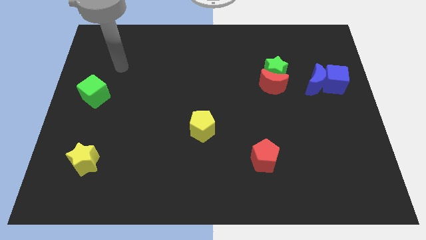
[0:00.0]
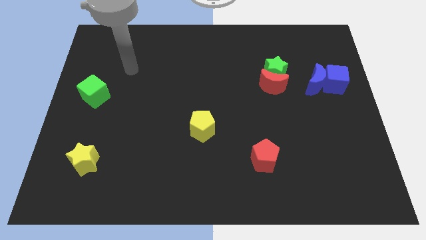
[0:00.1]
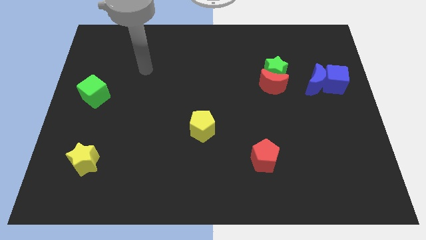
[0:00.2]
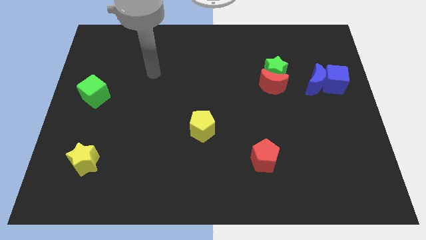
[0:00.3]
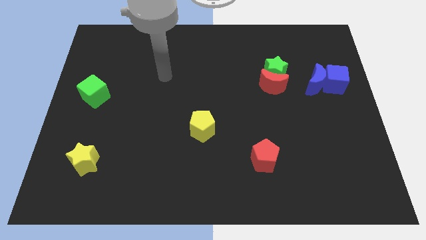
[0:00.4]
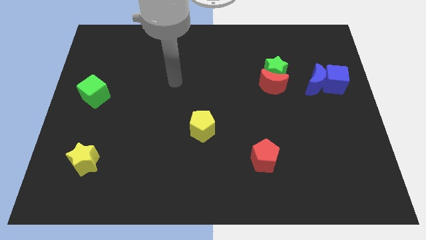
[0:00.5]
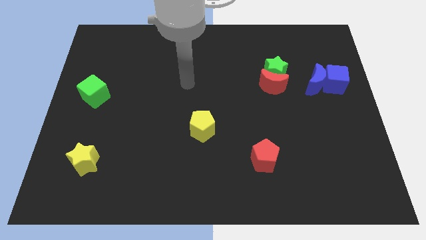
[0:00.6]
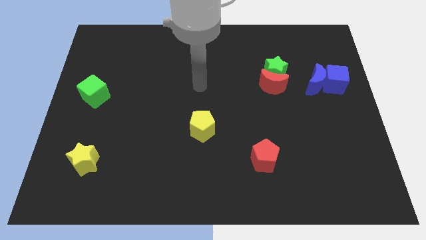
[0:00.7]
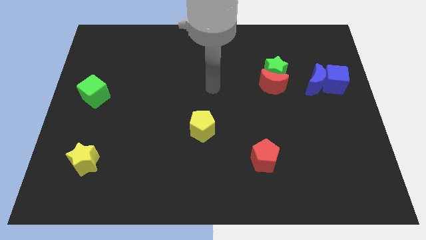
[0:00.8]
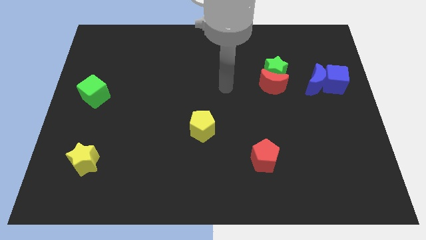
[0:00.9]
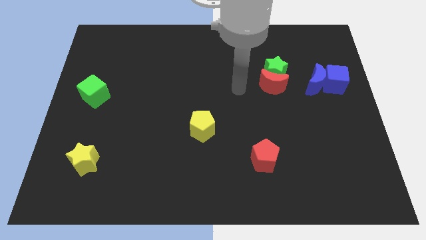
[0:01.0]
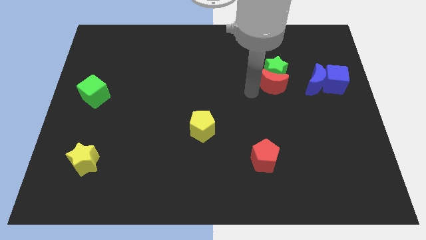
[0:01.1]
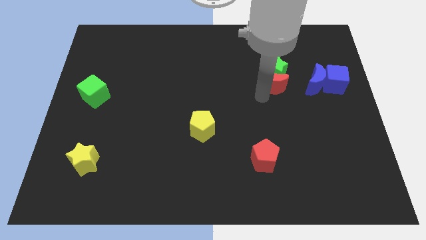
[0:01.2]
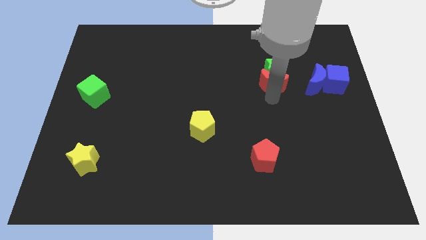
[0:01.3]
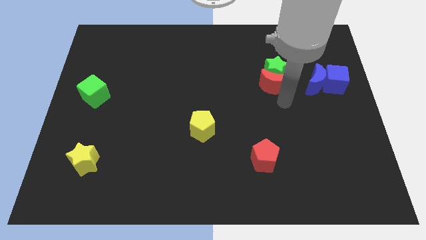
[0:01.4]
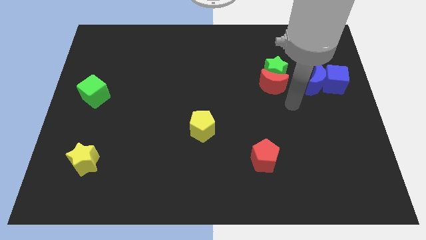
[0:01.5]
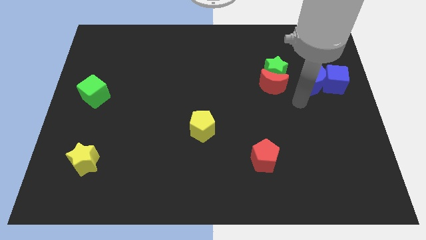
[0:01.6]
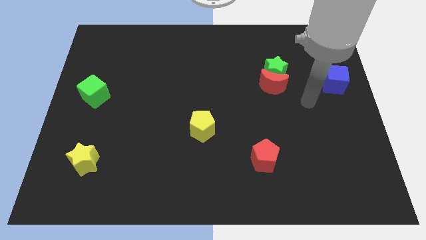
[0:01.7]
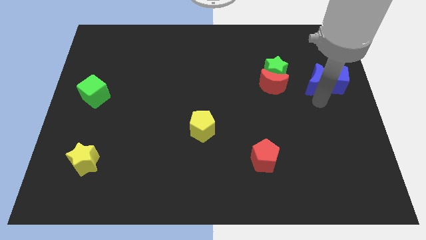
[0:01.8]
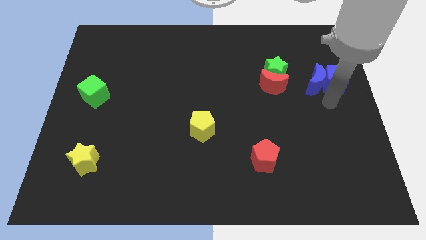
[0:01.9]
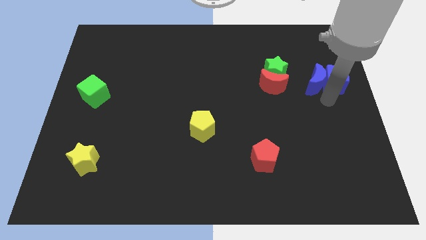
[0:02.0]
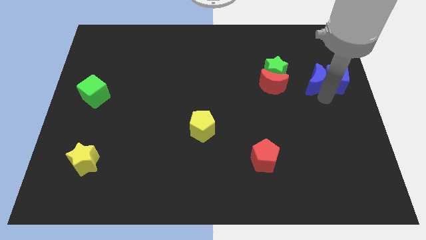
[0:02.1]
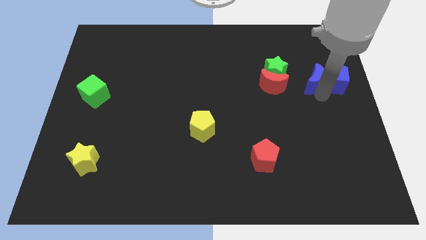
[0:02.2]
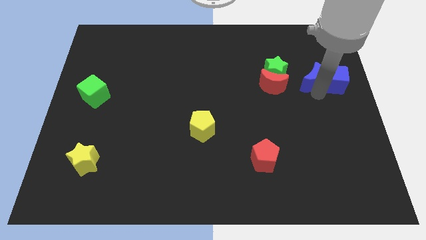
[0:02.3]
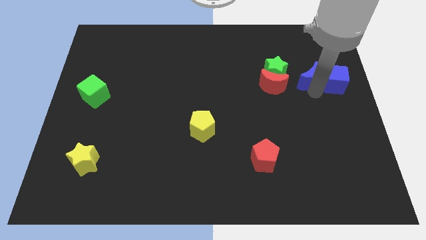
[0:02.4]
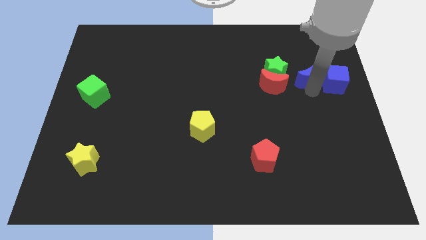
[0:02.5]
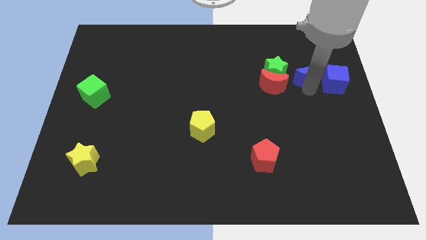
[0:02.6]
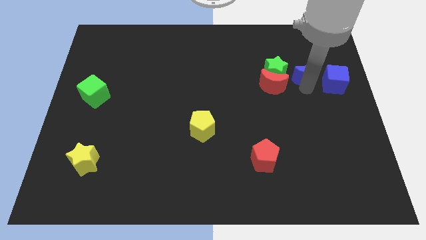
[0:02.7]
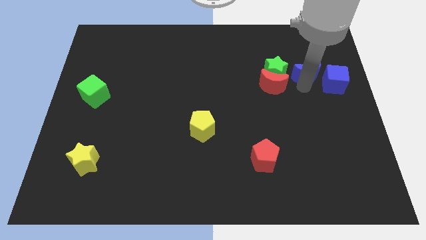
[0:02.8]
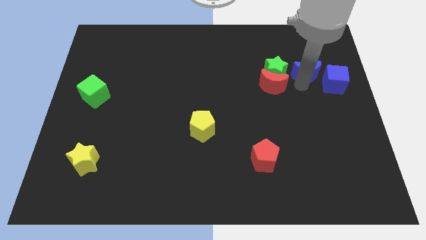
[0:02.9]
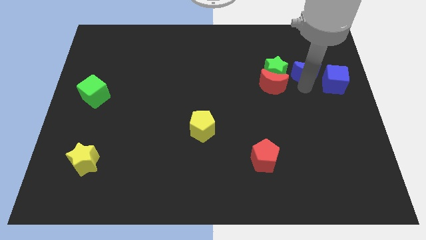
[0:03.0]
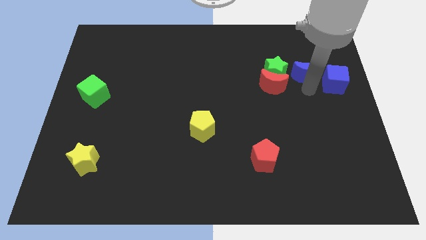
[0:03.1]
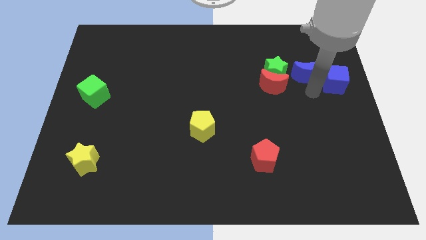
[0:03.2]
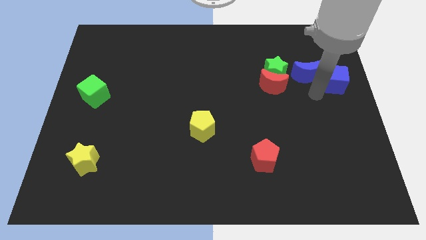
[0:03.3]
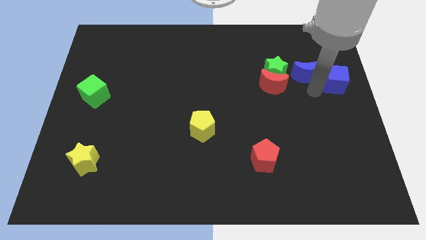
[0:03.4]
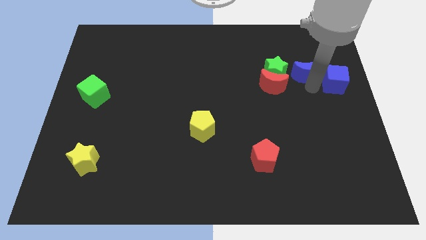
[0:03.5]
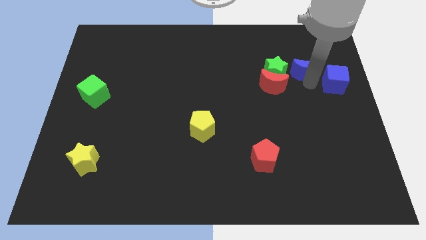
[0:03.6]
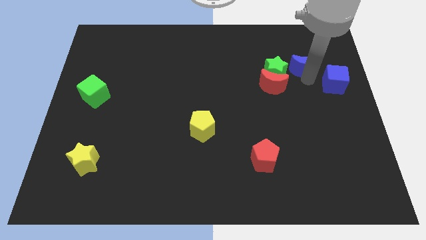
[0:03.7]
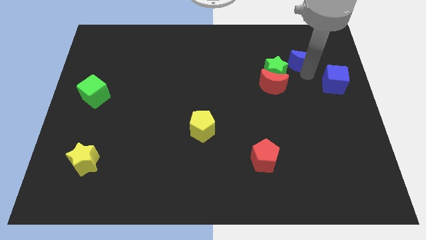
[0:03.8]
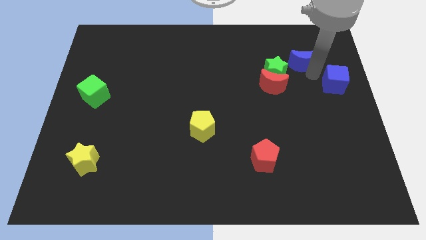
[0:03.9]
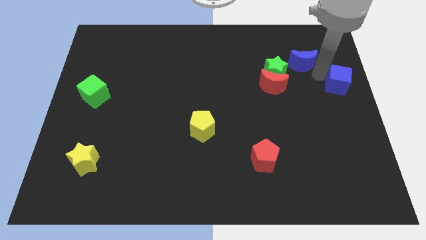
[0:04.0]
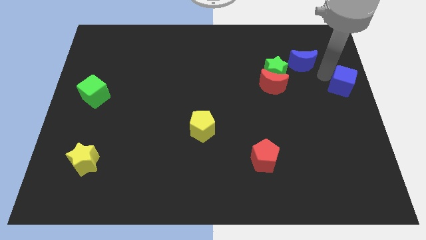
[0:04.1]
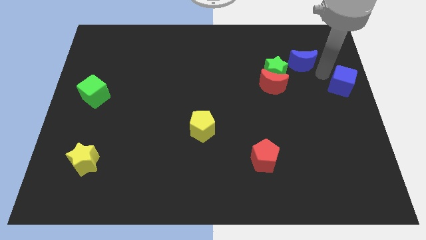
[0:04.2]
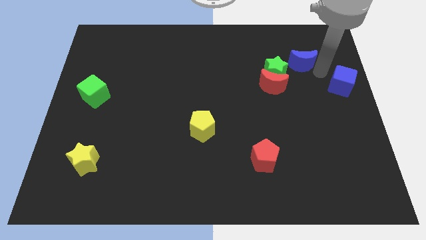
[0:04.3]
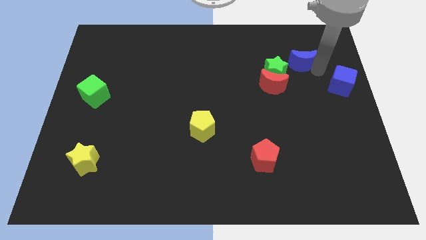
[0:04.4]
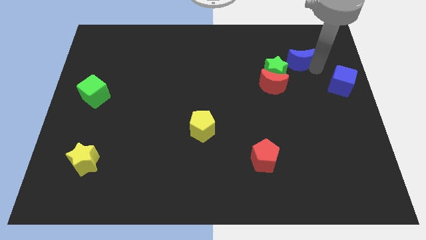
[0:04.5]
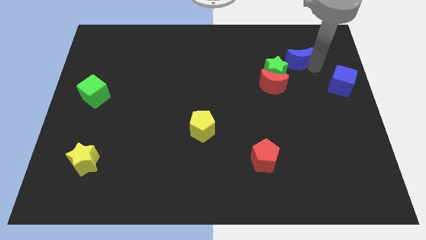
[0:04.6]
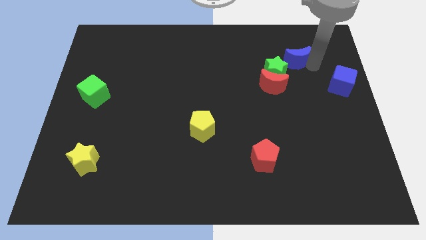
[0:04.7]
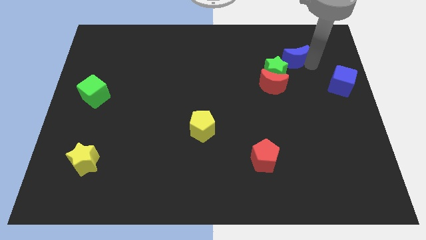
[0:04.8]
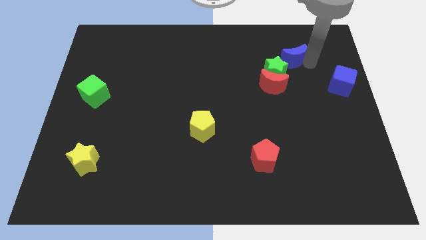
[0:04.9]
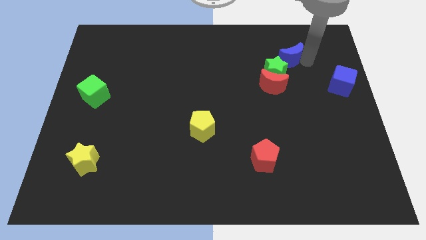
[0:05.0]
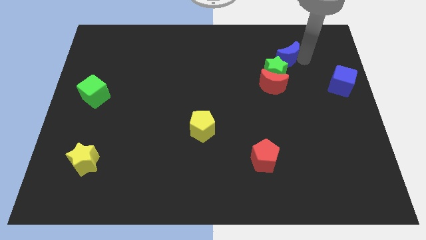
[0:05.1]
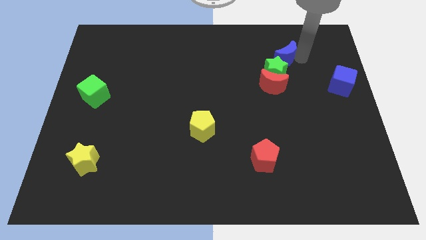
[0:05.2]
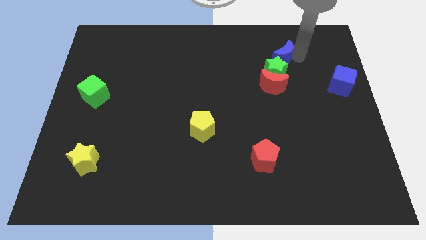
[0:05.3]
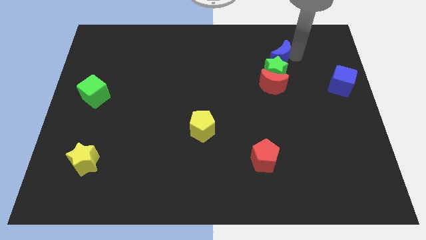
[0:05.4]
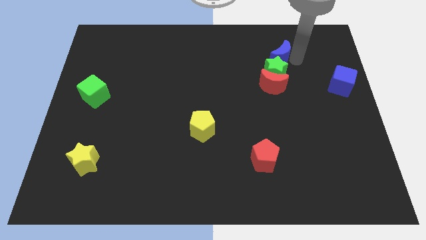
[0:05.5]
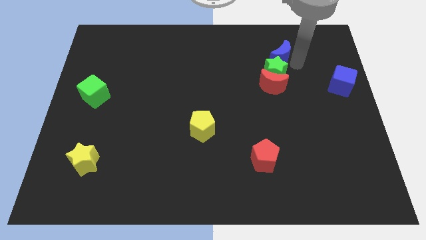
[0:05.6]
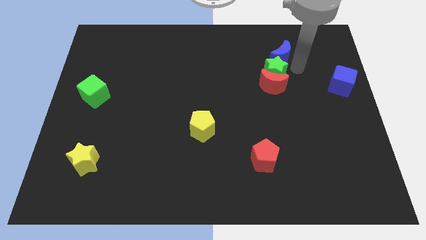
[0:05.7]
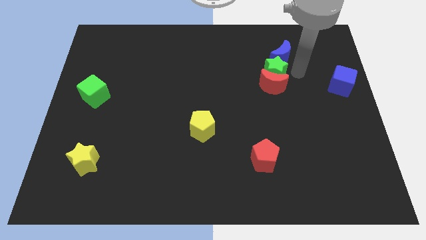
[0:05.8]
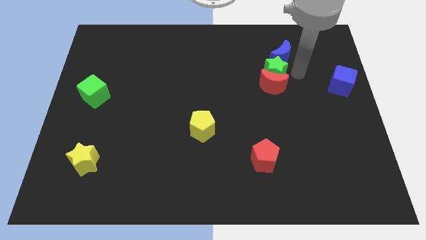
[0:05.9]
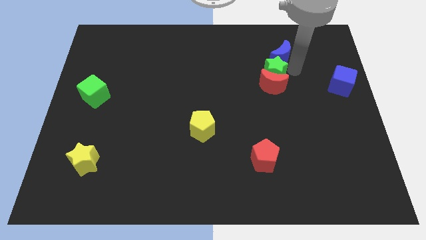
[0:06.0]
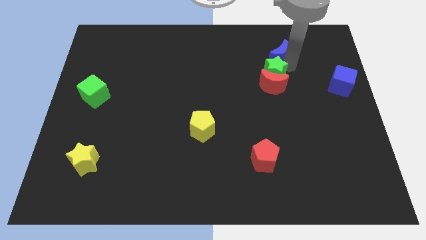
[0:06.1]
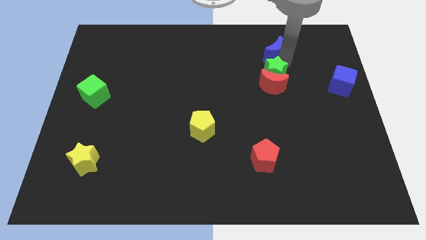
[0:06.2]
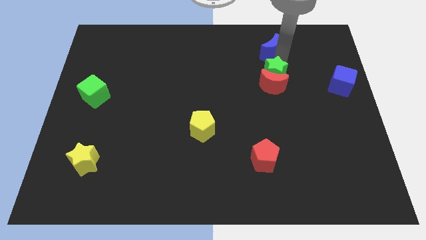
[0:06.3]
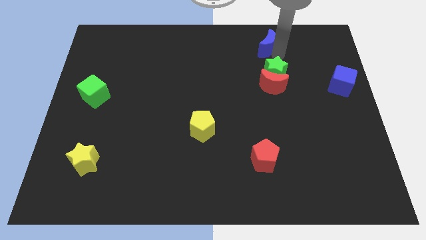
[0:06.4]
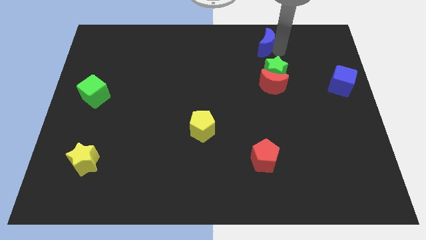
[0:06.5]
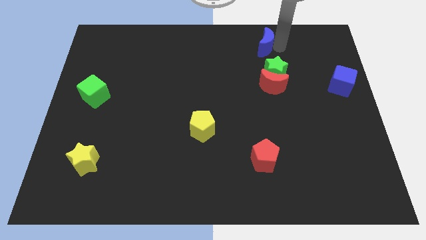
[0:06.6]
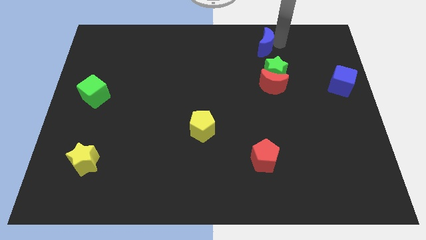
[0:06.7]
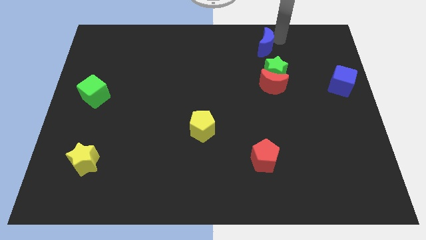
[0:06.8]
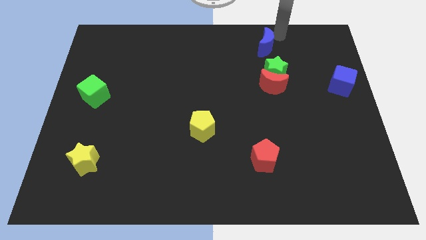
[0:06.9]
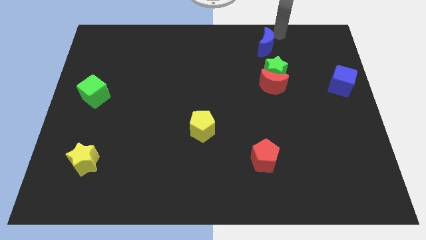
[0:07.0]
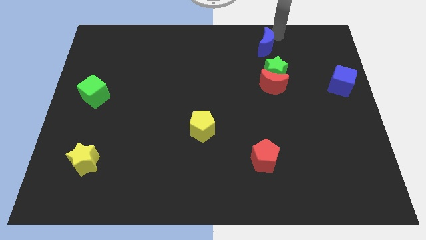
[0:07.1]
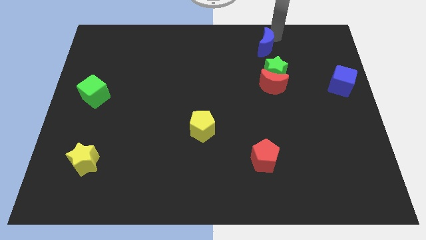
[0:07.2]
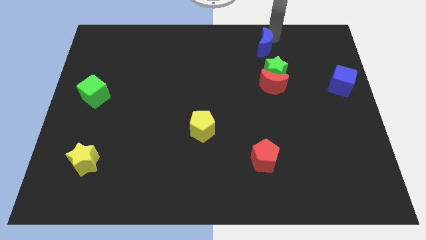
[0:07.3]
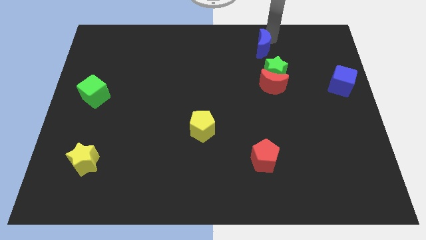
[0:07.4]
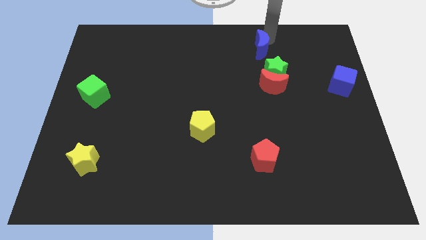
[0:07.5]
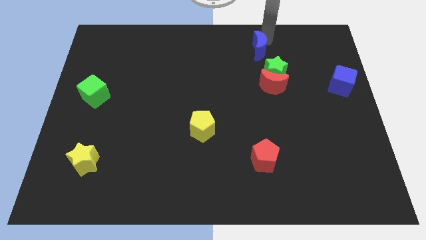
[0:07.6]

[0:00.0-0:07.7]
slide the blue moon to the top left of the green star
